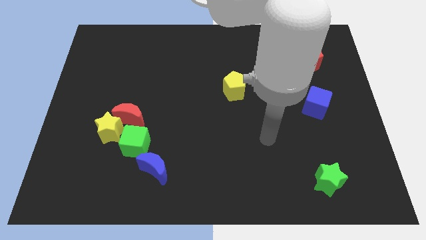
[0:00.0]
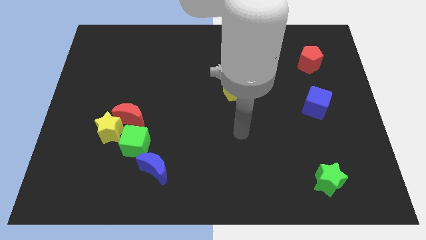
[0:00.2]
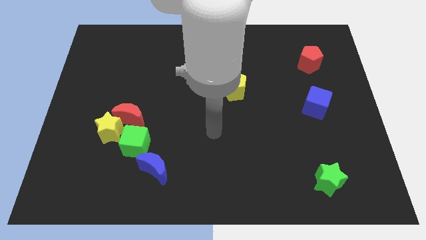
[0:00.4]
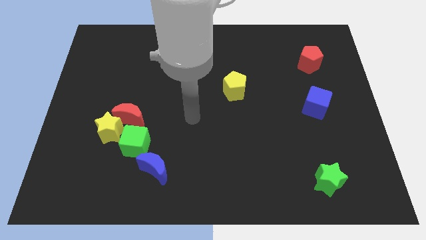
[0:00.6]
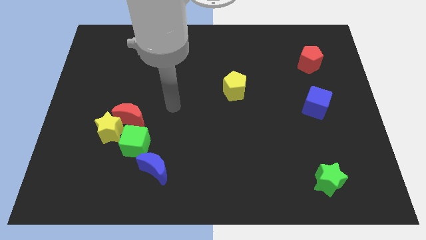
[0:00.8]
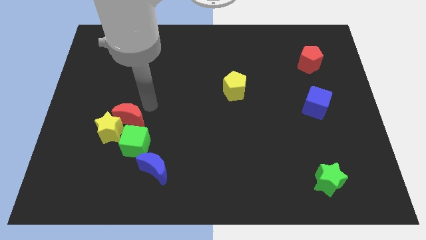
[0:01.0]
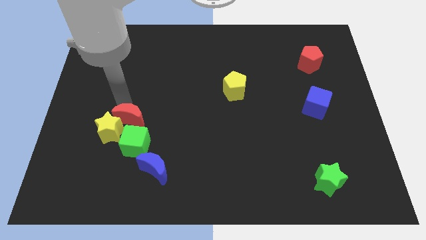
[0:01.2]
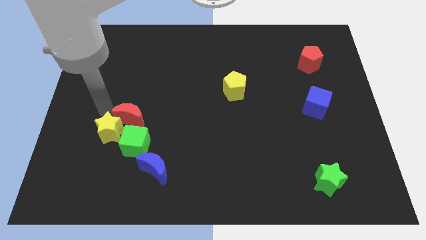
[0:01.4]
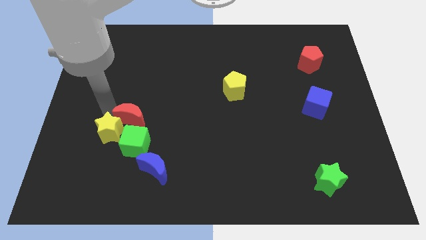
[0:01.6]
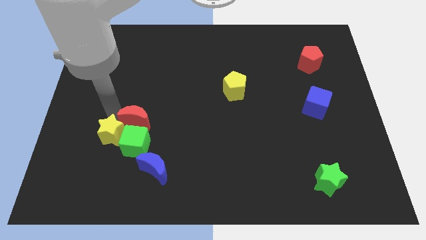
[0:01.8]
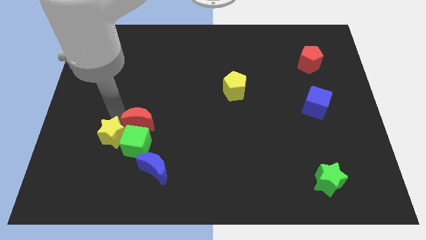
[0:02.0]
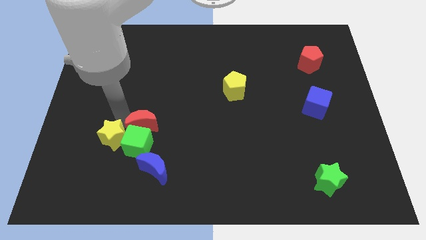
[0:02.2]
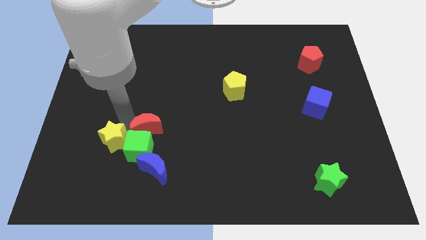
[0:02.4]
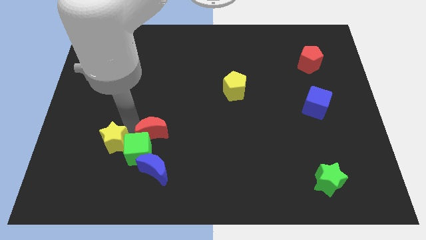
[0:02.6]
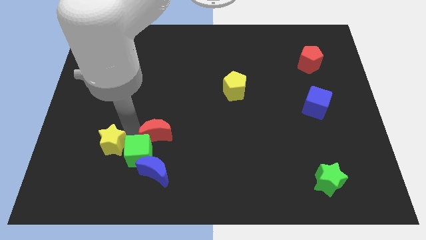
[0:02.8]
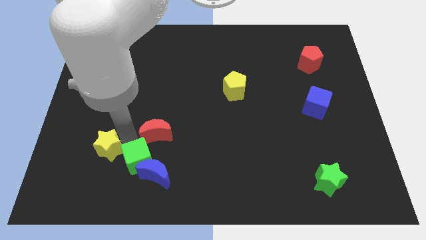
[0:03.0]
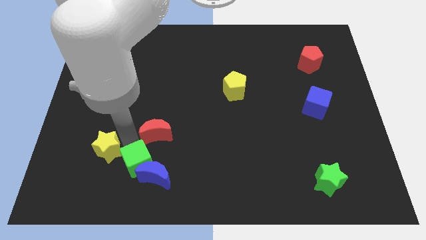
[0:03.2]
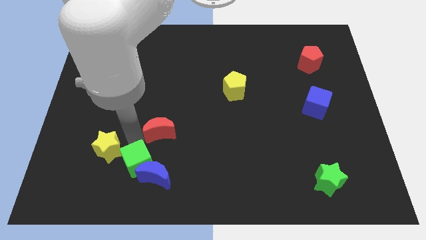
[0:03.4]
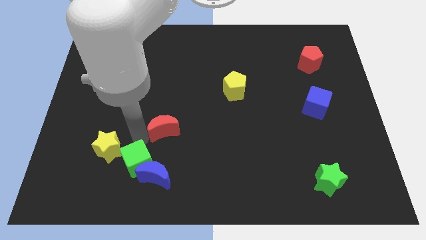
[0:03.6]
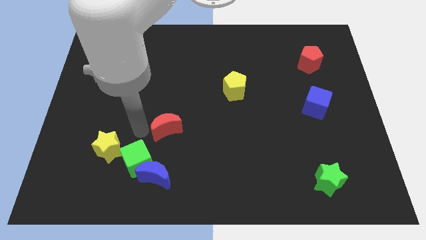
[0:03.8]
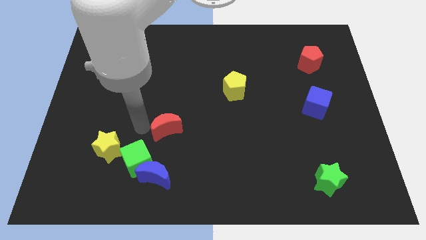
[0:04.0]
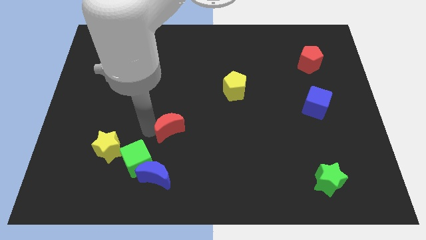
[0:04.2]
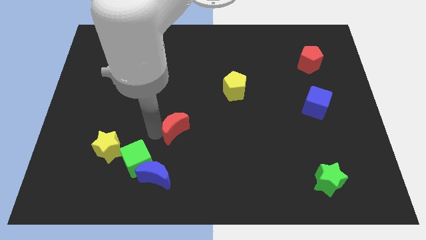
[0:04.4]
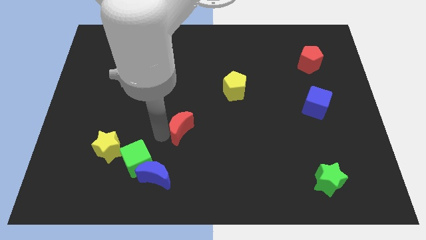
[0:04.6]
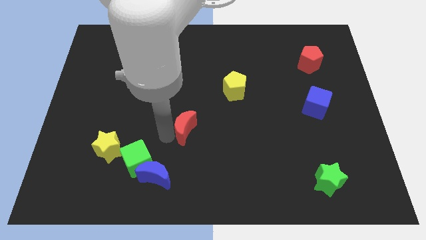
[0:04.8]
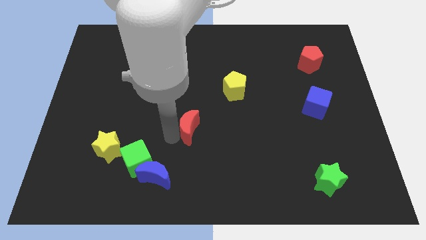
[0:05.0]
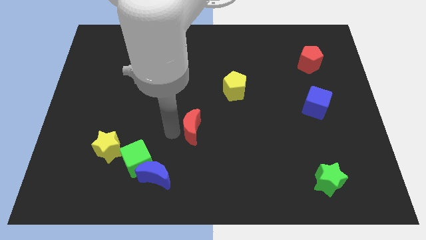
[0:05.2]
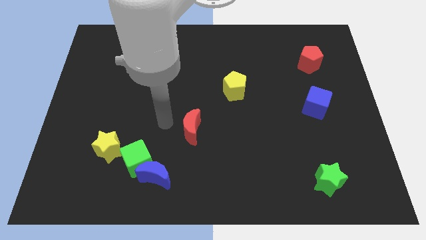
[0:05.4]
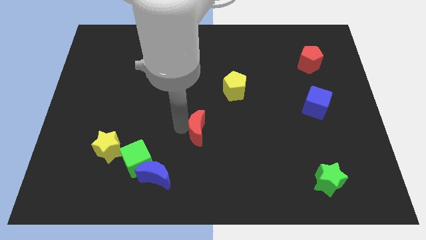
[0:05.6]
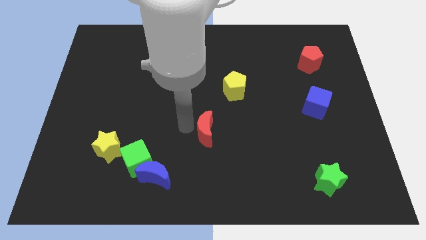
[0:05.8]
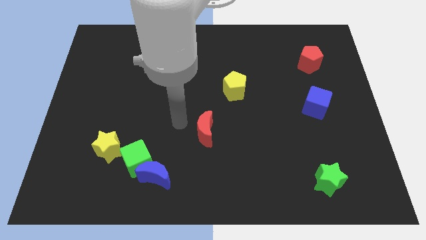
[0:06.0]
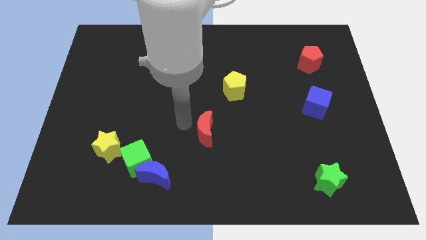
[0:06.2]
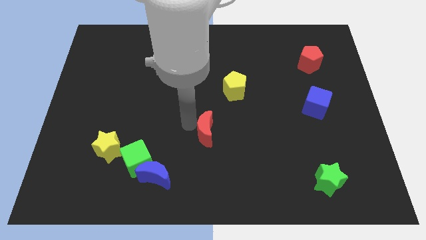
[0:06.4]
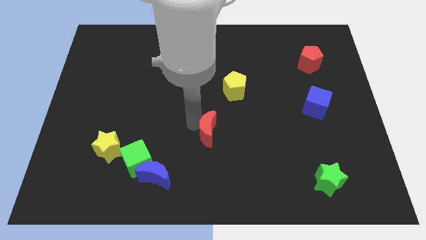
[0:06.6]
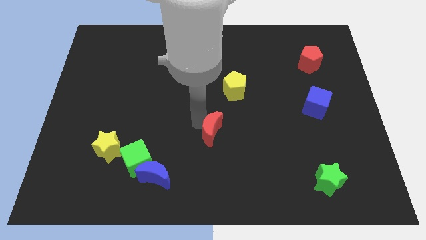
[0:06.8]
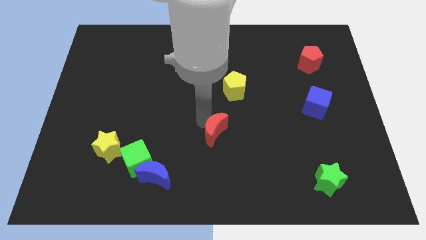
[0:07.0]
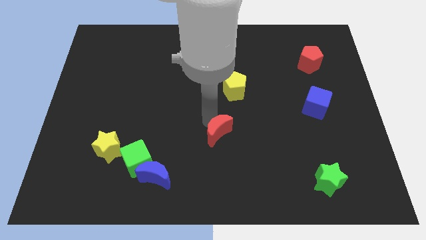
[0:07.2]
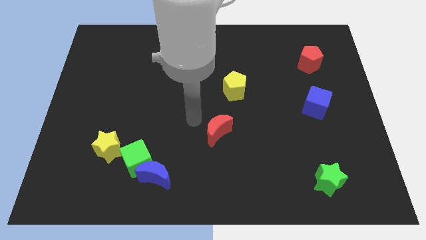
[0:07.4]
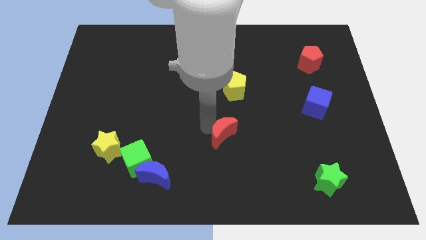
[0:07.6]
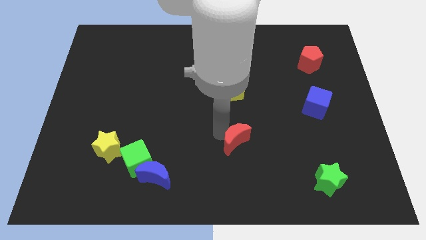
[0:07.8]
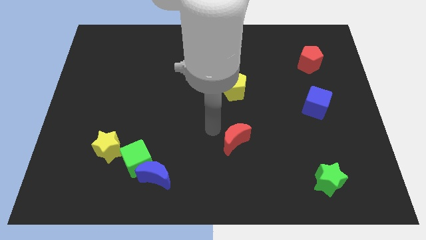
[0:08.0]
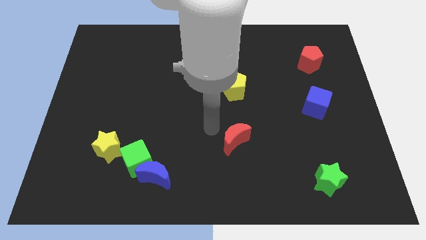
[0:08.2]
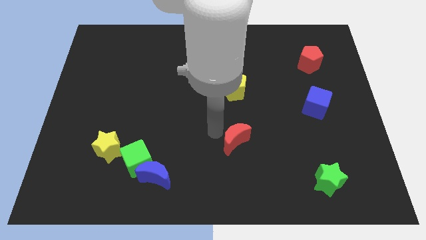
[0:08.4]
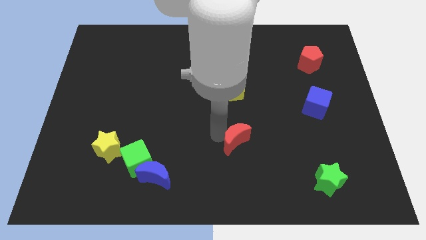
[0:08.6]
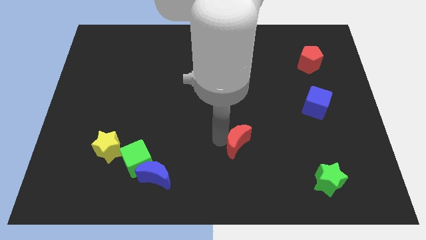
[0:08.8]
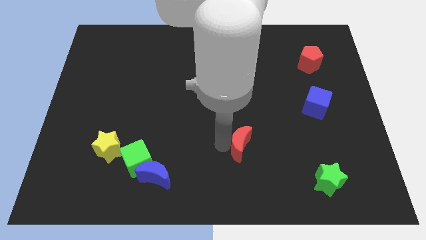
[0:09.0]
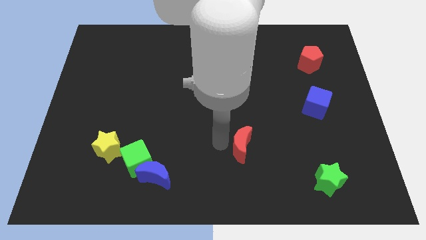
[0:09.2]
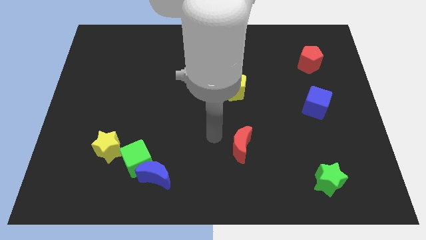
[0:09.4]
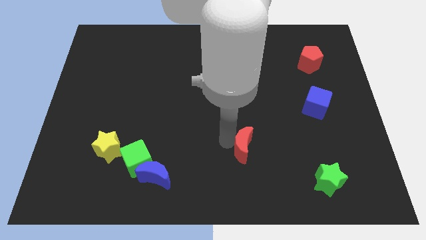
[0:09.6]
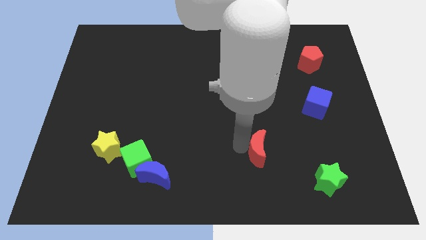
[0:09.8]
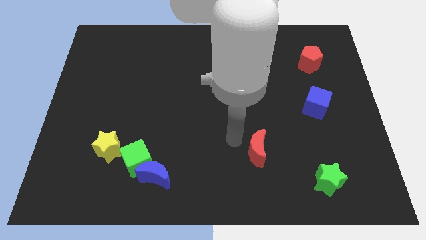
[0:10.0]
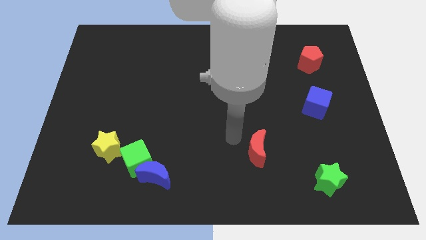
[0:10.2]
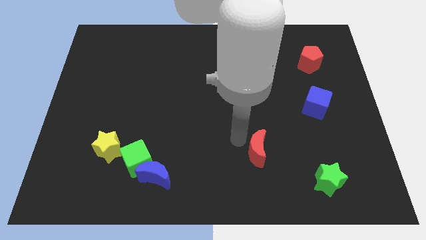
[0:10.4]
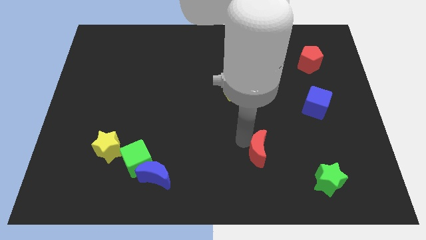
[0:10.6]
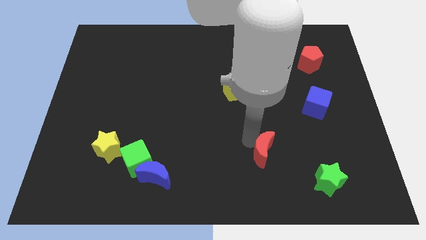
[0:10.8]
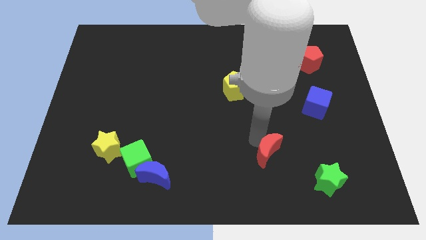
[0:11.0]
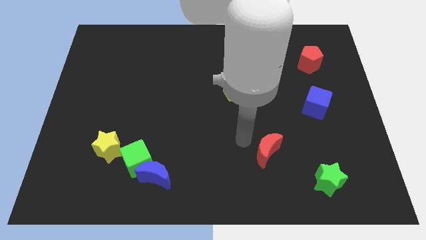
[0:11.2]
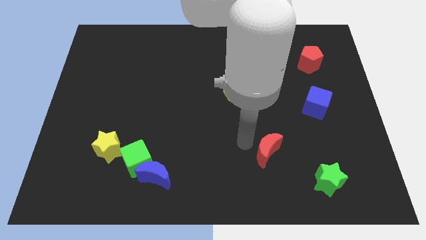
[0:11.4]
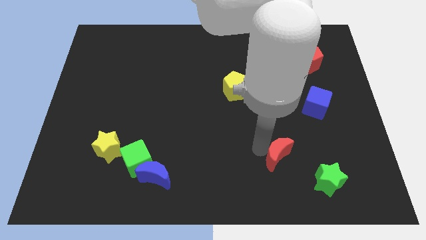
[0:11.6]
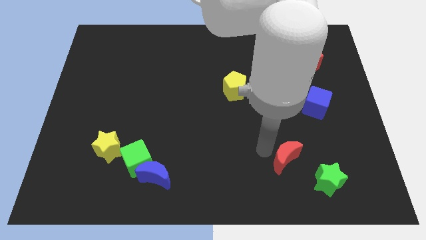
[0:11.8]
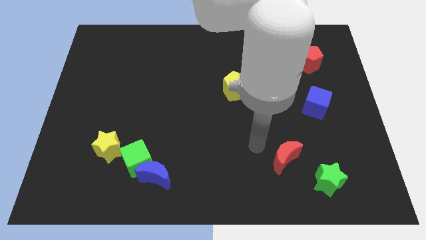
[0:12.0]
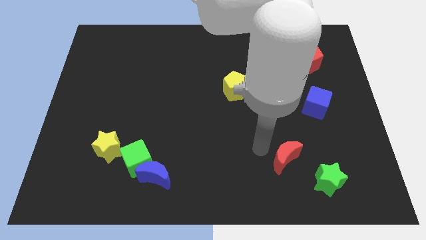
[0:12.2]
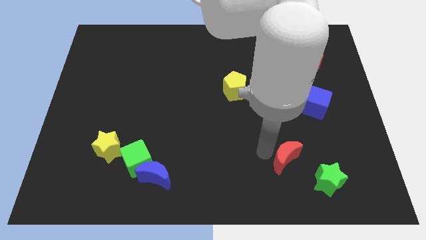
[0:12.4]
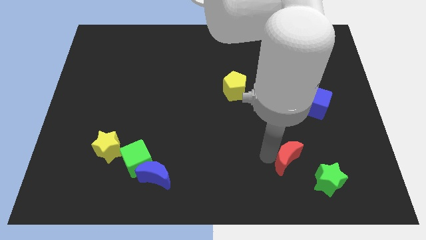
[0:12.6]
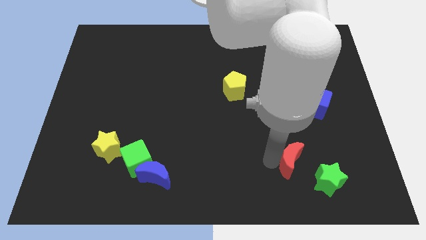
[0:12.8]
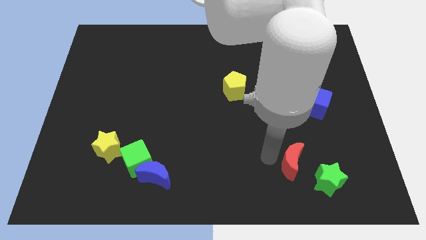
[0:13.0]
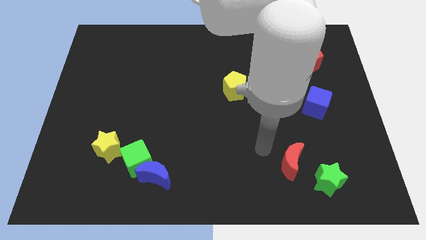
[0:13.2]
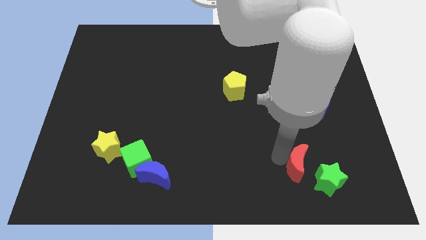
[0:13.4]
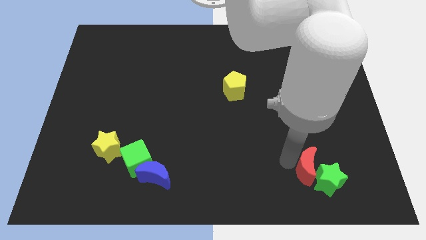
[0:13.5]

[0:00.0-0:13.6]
slide the red moon towards the green star
